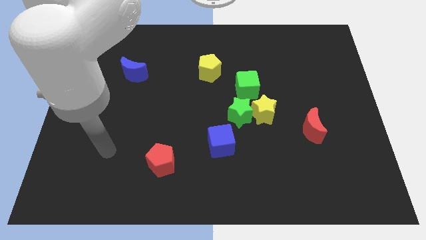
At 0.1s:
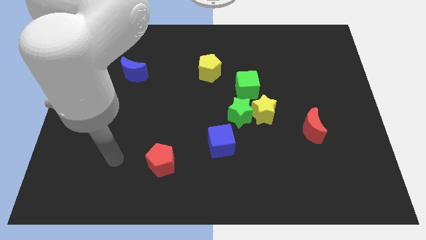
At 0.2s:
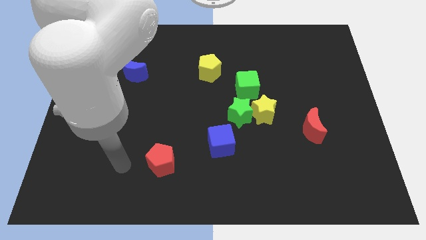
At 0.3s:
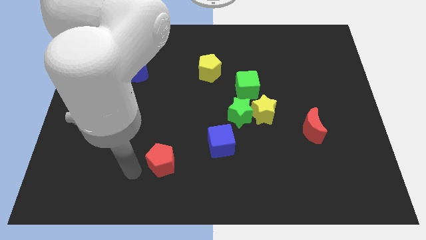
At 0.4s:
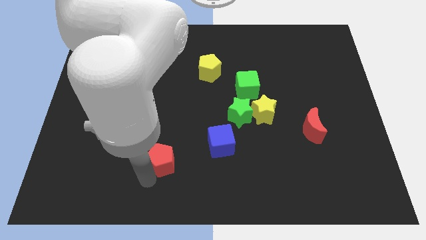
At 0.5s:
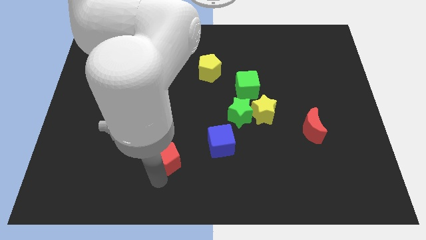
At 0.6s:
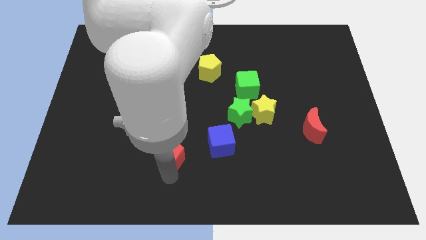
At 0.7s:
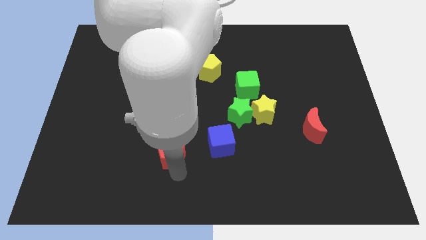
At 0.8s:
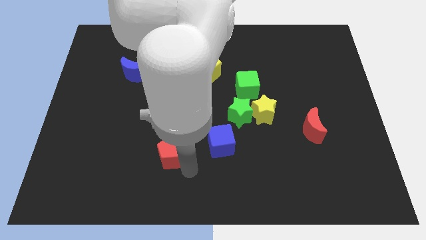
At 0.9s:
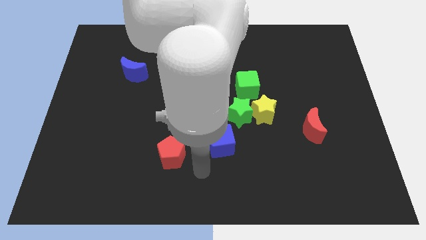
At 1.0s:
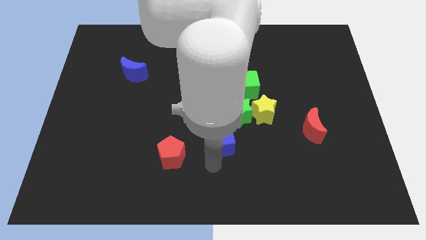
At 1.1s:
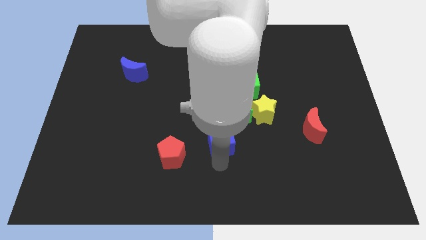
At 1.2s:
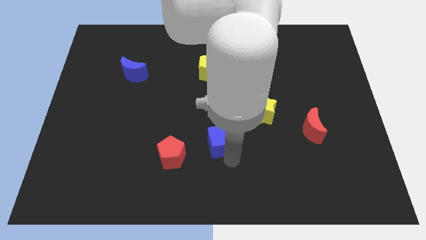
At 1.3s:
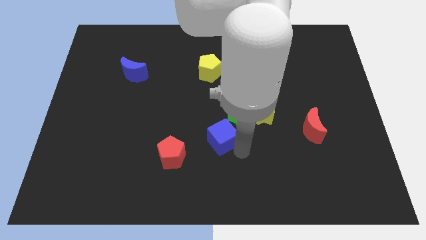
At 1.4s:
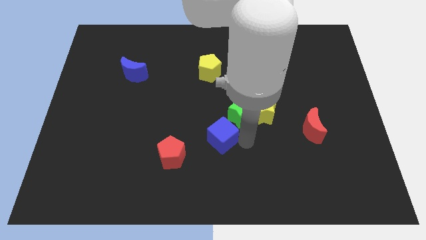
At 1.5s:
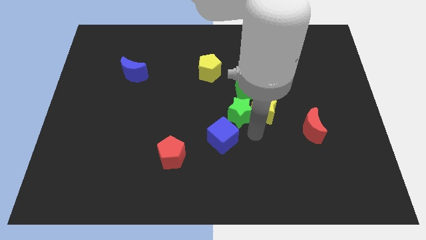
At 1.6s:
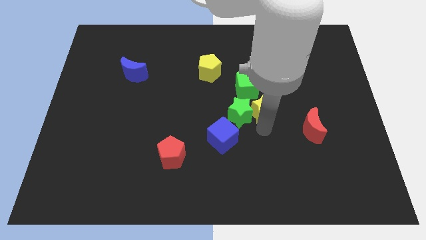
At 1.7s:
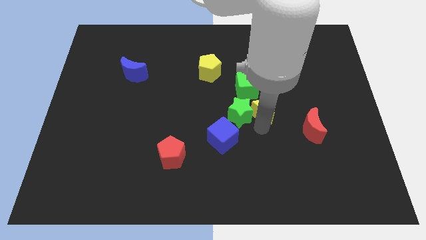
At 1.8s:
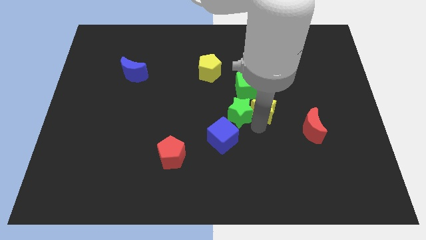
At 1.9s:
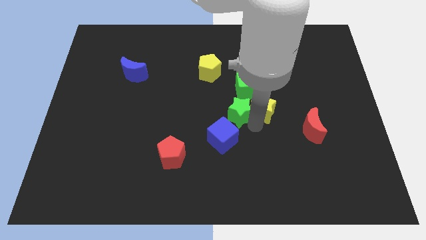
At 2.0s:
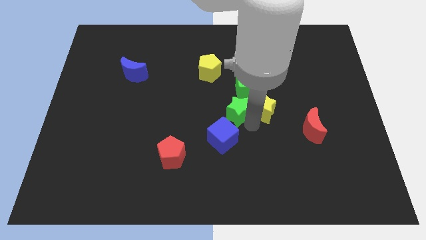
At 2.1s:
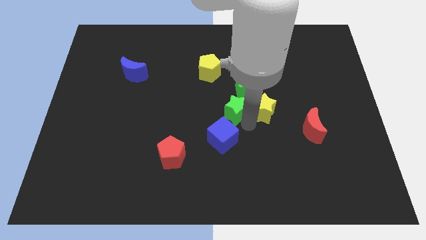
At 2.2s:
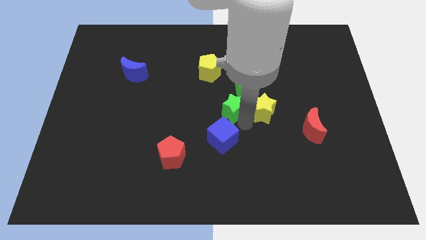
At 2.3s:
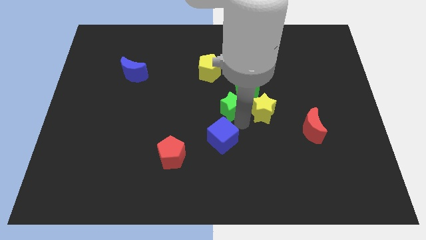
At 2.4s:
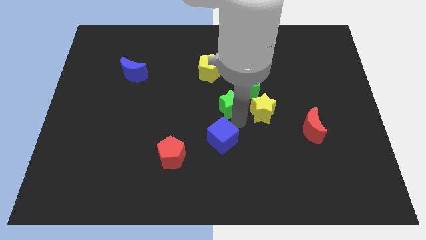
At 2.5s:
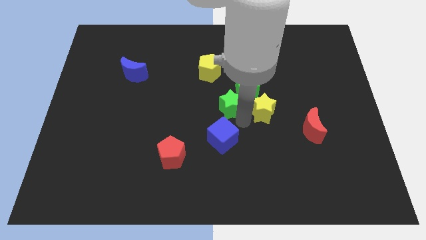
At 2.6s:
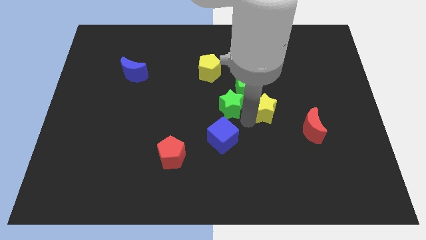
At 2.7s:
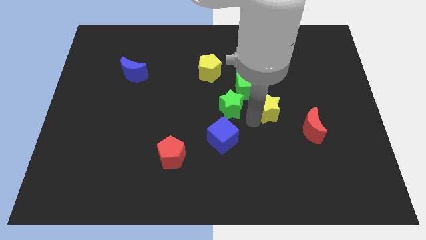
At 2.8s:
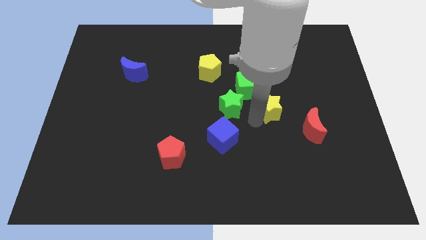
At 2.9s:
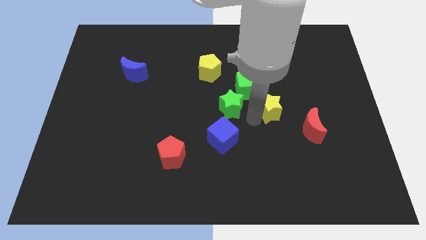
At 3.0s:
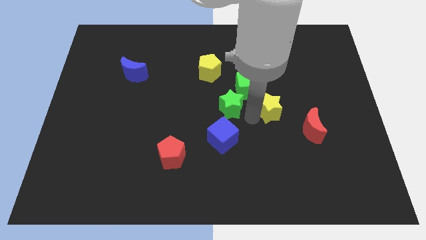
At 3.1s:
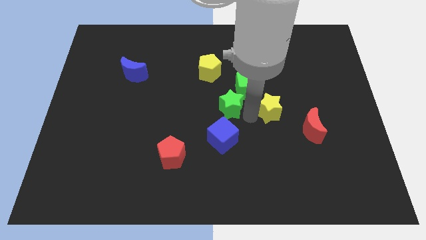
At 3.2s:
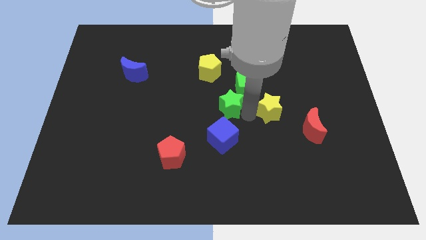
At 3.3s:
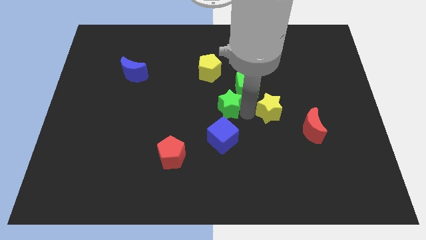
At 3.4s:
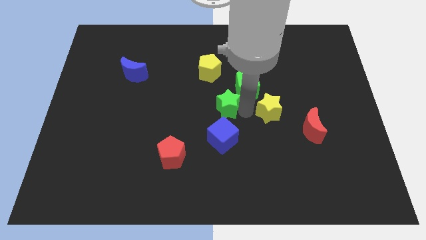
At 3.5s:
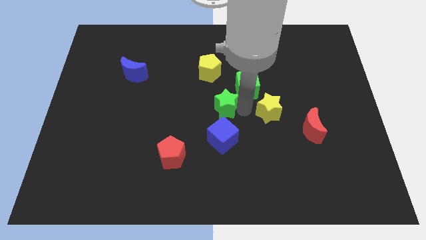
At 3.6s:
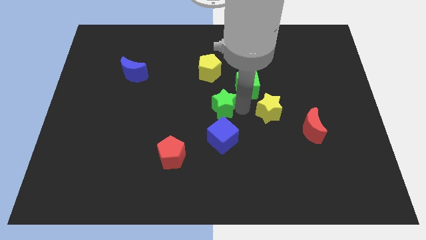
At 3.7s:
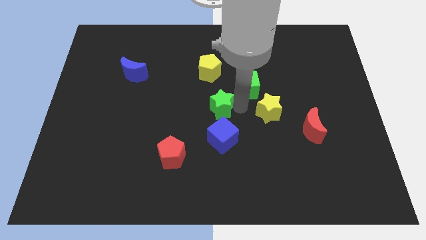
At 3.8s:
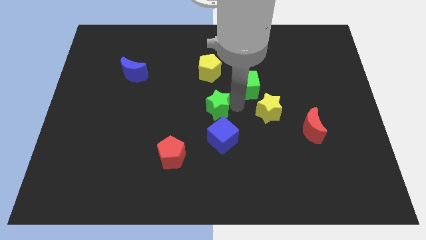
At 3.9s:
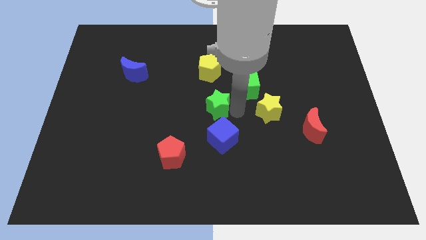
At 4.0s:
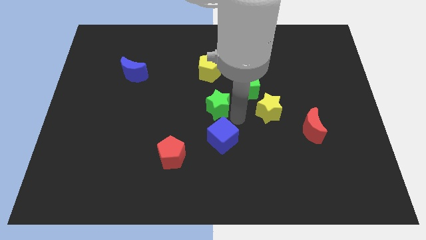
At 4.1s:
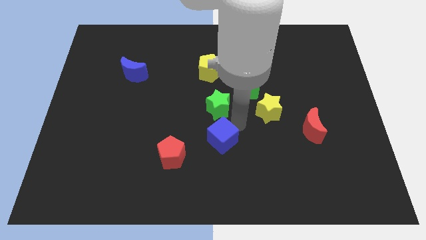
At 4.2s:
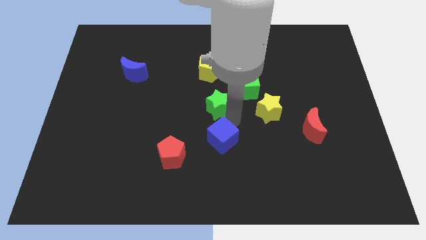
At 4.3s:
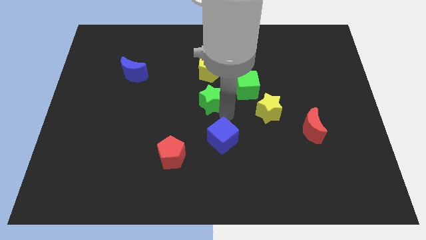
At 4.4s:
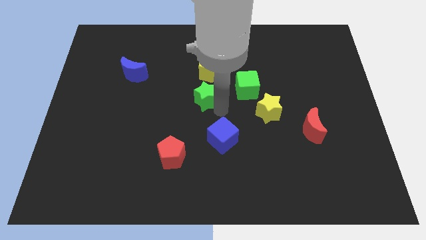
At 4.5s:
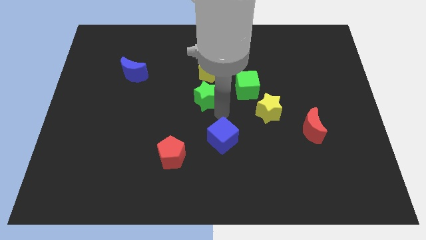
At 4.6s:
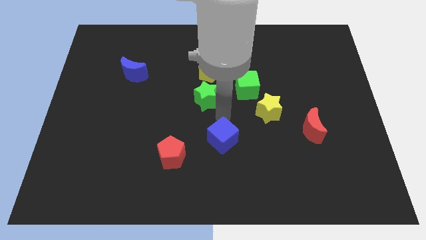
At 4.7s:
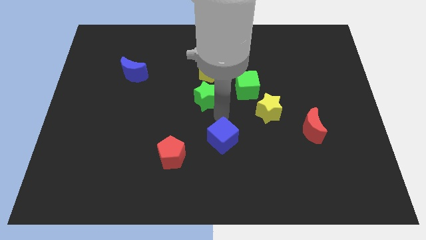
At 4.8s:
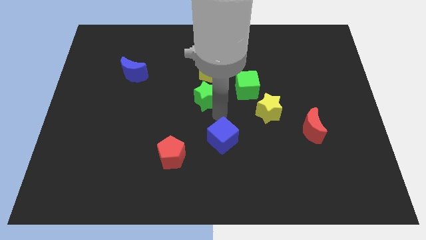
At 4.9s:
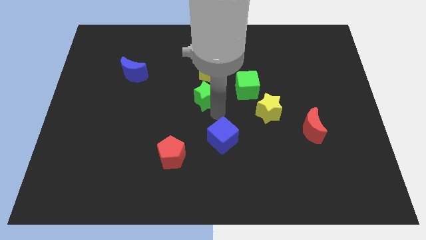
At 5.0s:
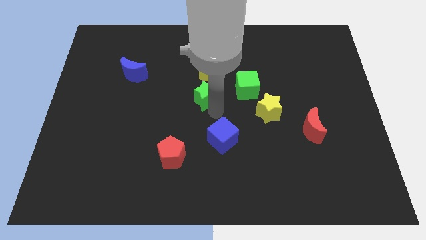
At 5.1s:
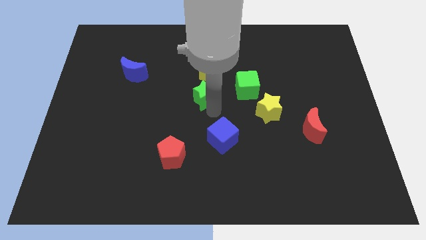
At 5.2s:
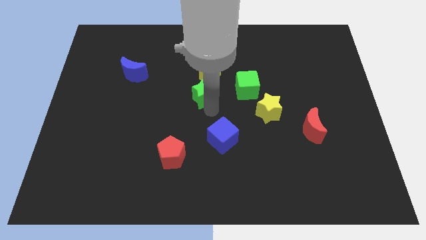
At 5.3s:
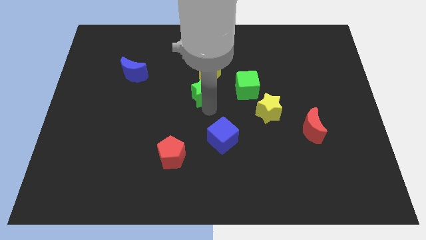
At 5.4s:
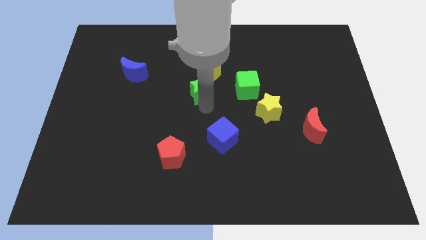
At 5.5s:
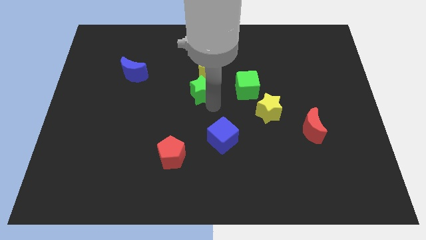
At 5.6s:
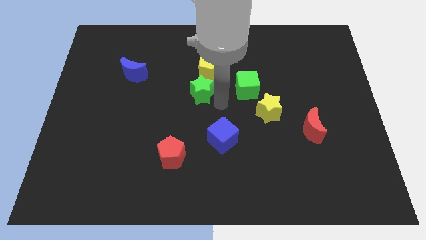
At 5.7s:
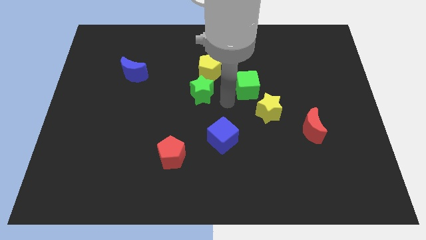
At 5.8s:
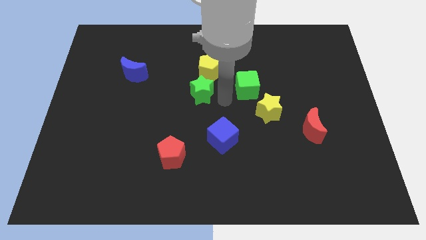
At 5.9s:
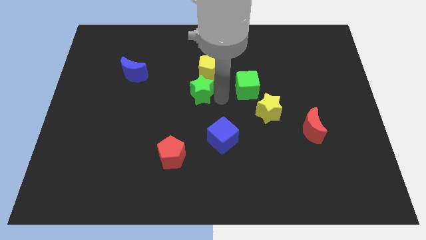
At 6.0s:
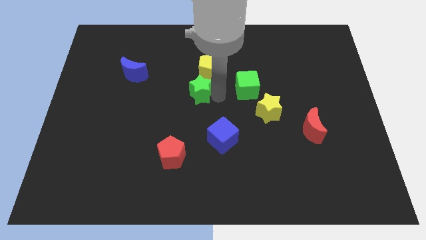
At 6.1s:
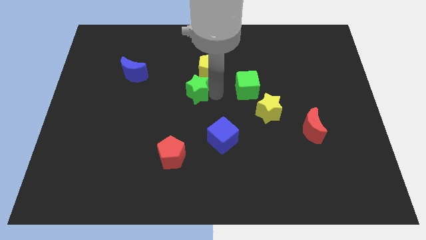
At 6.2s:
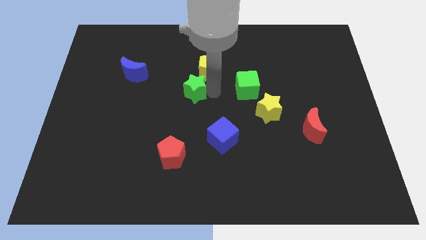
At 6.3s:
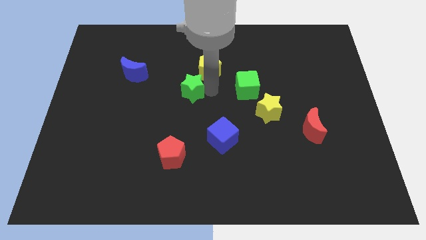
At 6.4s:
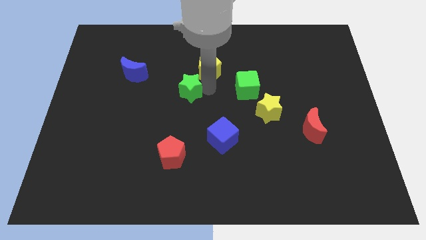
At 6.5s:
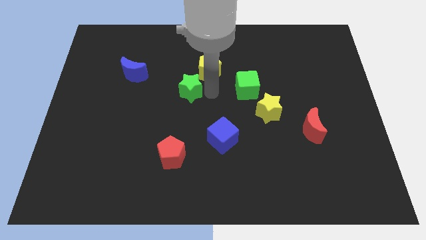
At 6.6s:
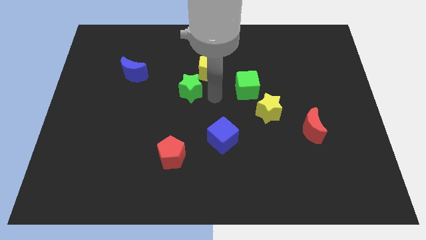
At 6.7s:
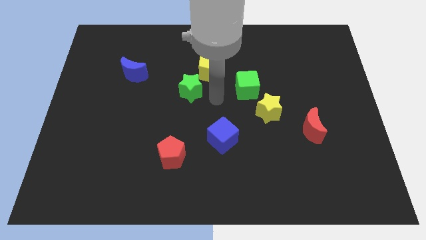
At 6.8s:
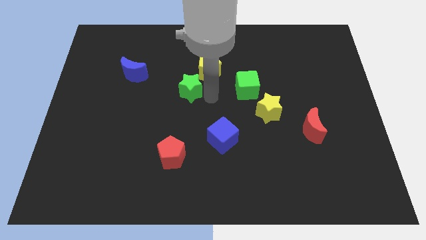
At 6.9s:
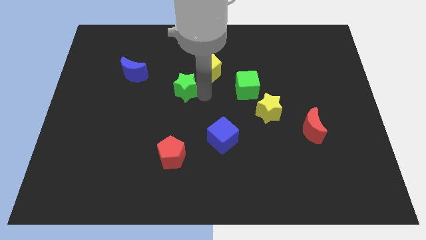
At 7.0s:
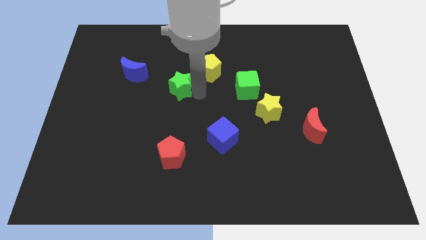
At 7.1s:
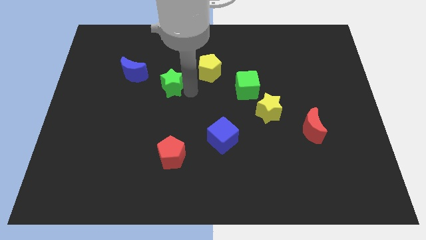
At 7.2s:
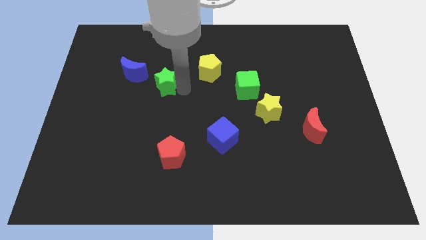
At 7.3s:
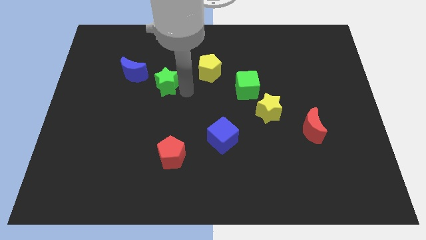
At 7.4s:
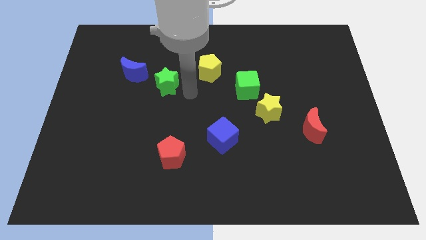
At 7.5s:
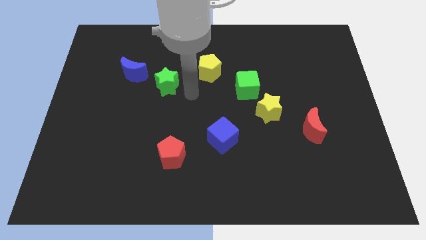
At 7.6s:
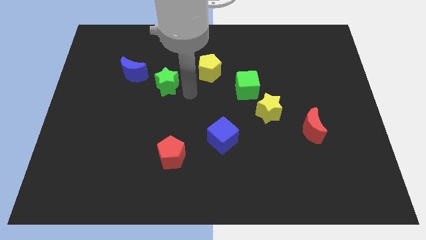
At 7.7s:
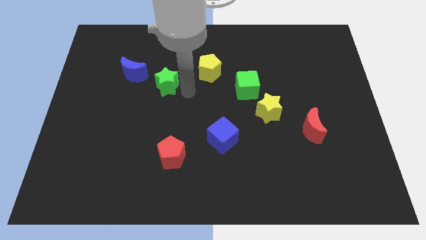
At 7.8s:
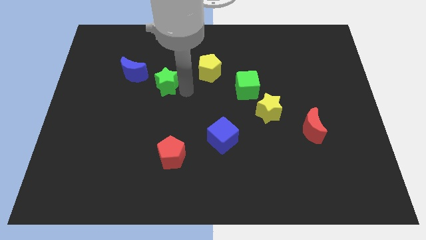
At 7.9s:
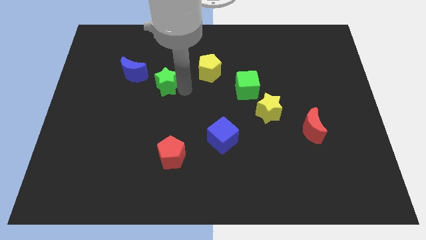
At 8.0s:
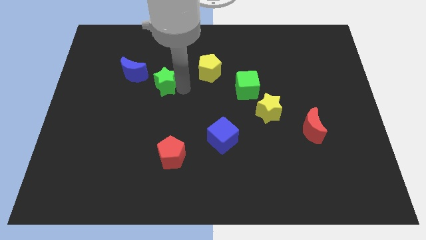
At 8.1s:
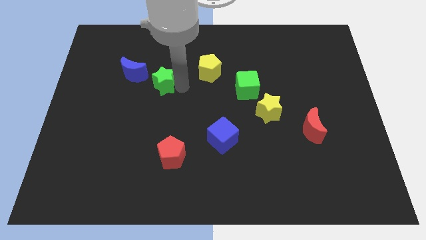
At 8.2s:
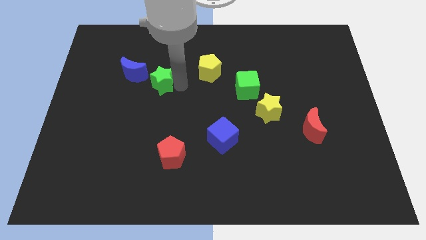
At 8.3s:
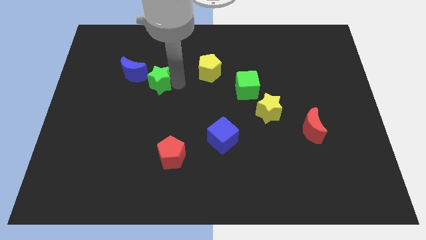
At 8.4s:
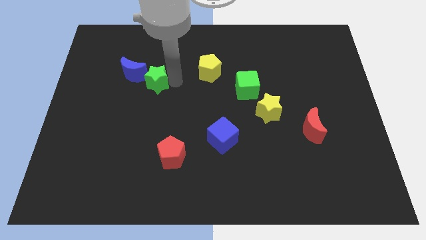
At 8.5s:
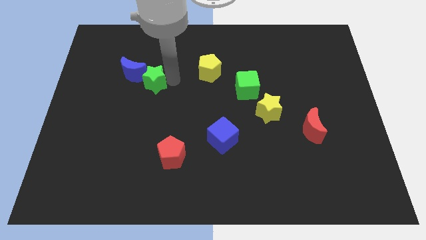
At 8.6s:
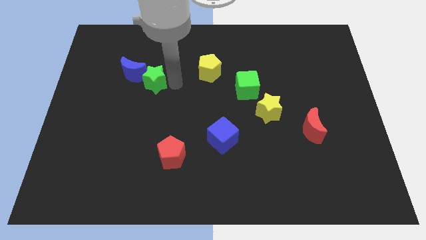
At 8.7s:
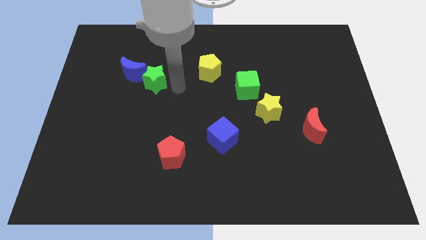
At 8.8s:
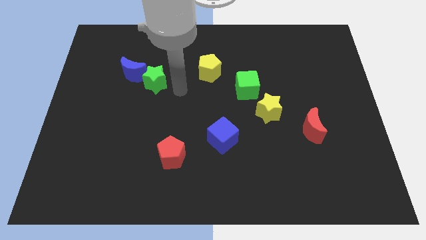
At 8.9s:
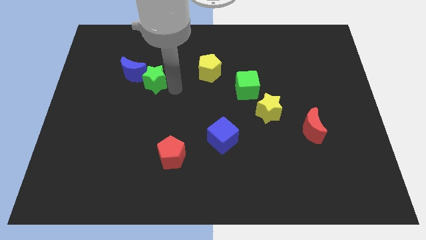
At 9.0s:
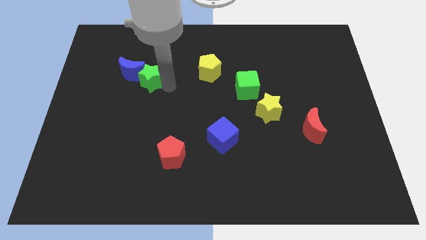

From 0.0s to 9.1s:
slide the green star to the blue moon
